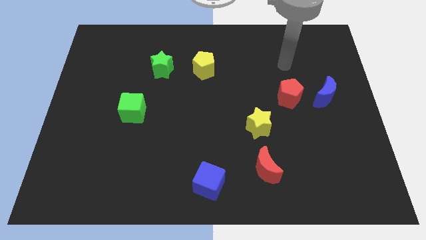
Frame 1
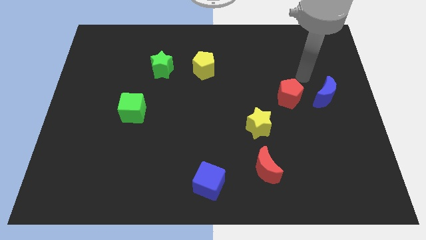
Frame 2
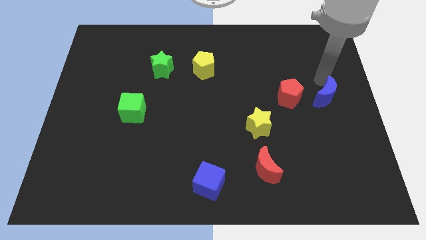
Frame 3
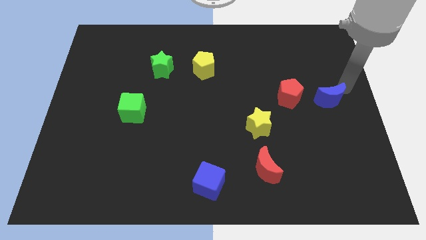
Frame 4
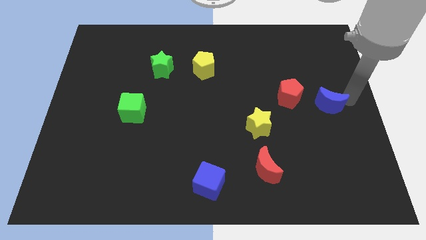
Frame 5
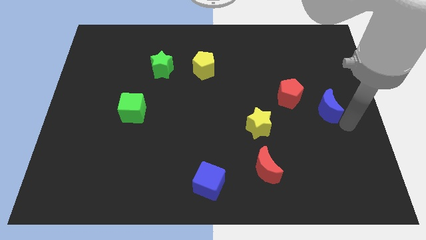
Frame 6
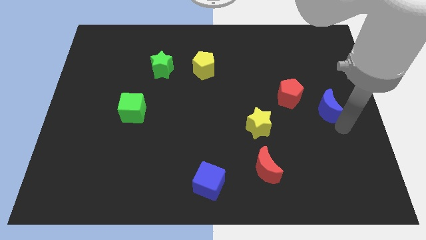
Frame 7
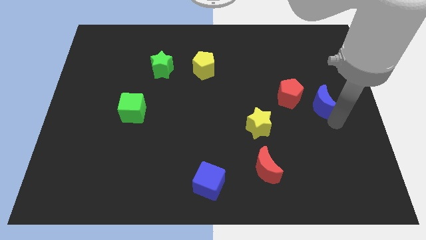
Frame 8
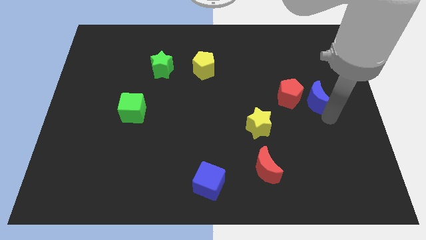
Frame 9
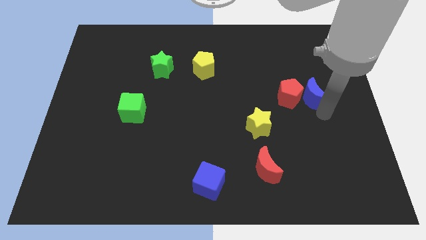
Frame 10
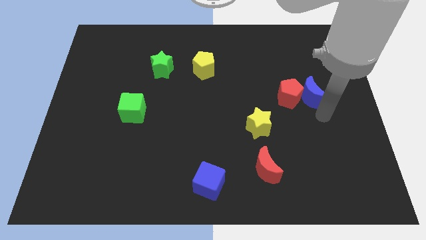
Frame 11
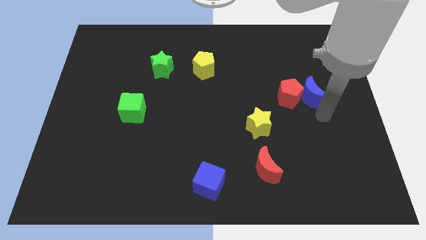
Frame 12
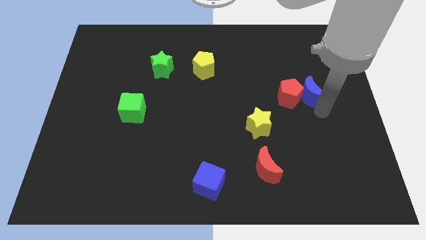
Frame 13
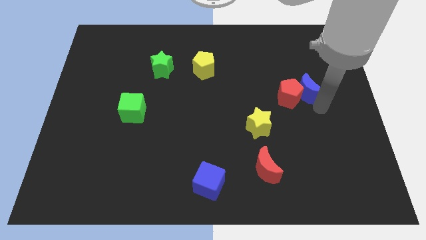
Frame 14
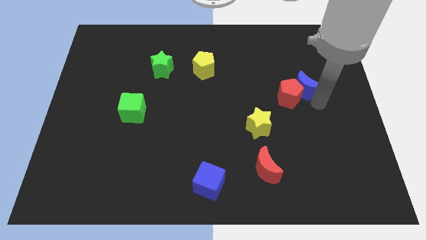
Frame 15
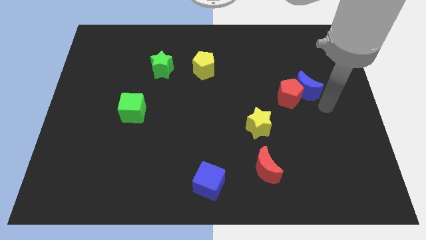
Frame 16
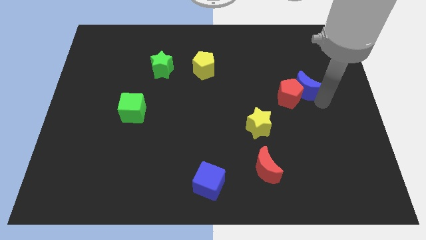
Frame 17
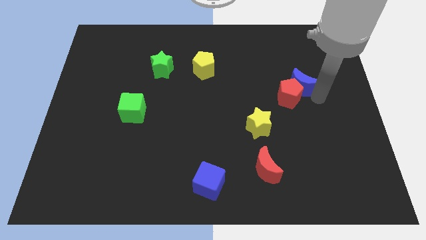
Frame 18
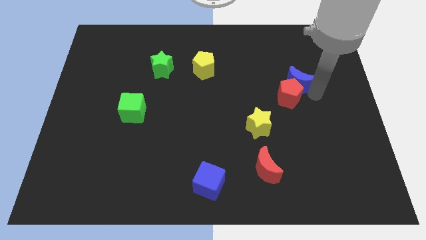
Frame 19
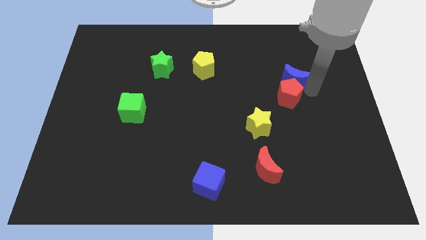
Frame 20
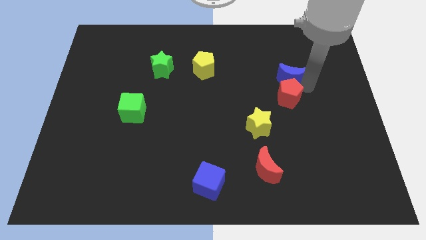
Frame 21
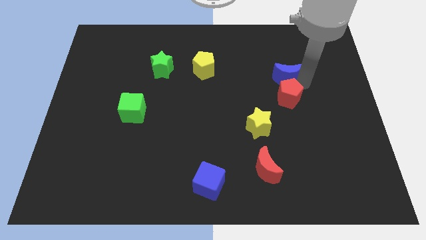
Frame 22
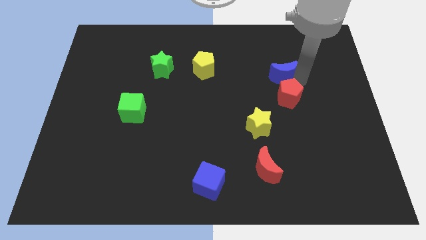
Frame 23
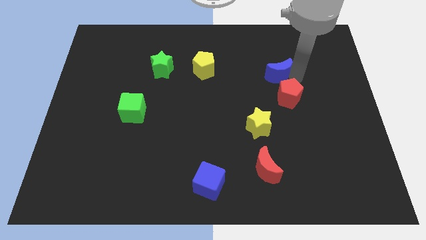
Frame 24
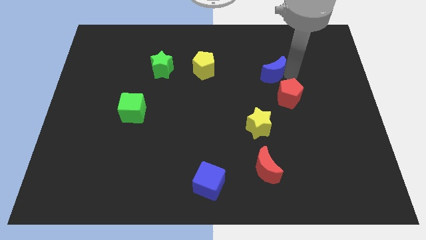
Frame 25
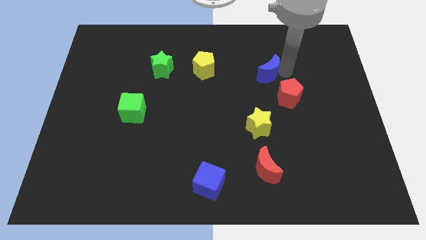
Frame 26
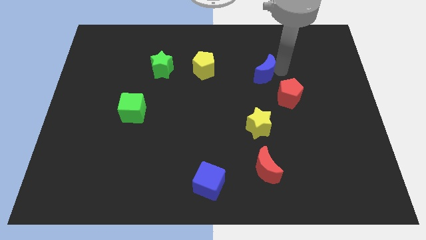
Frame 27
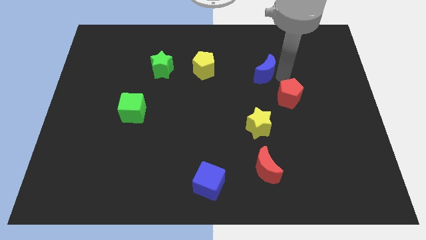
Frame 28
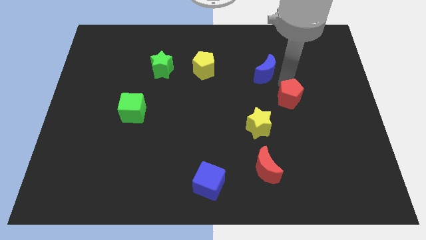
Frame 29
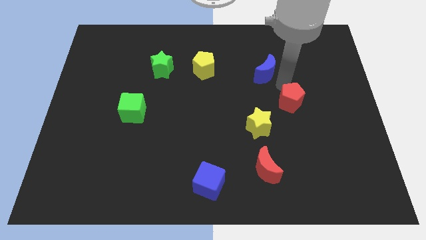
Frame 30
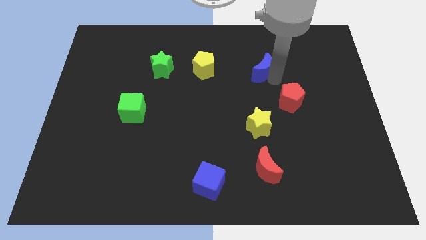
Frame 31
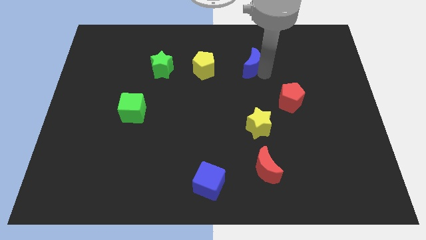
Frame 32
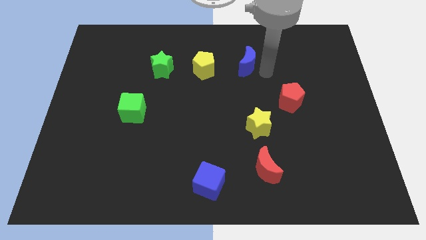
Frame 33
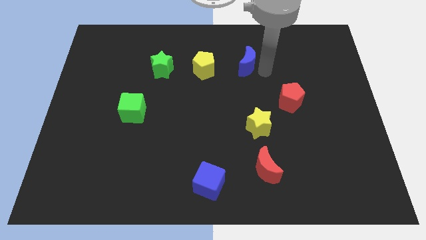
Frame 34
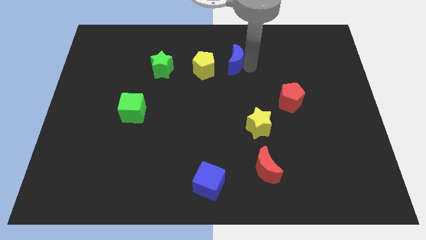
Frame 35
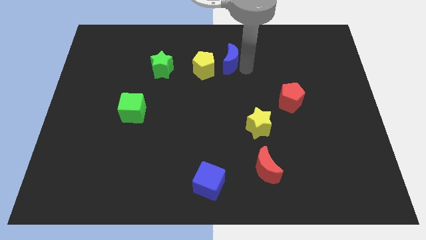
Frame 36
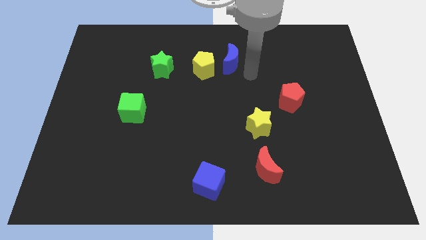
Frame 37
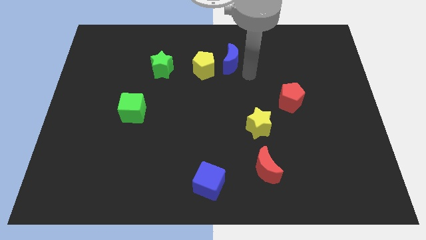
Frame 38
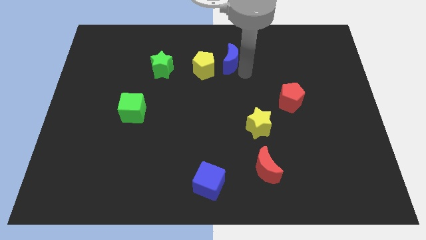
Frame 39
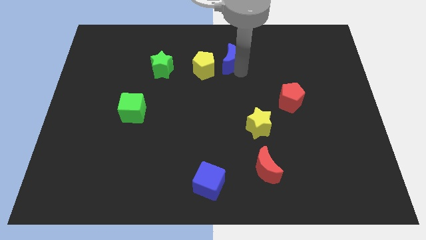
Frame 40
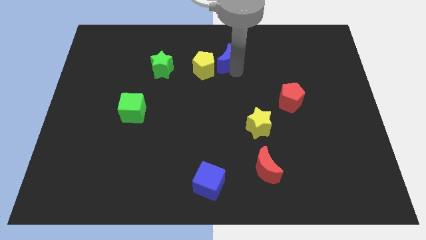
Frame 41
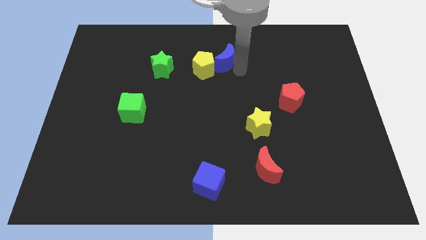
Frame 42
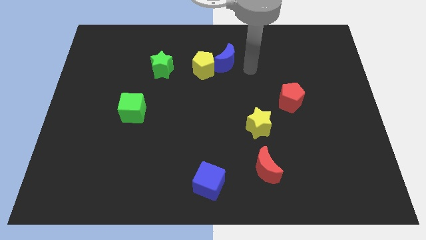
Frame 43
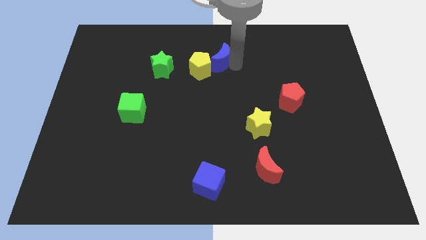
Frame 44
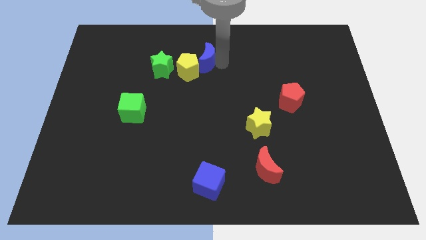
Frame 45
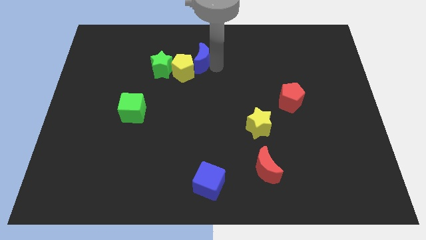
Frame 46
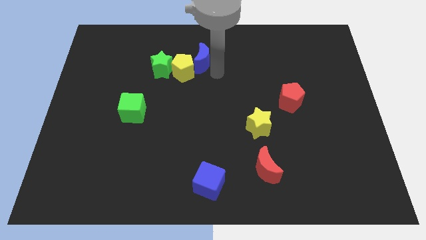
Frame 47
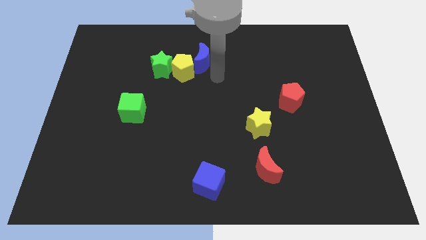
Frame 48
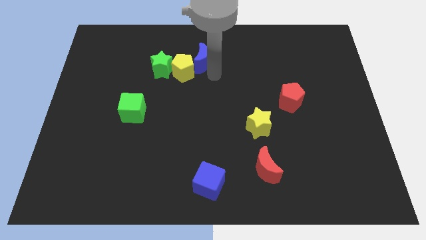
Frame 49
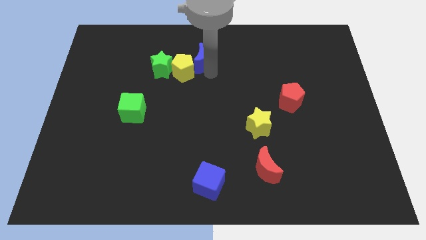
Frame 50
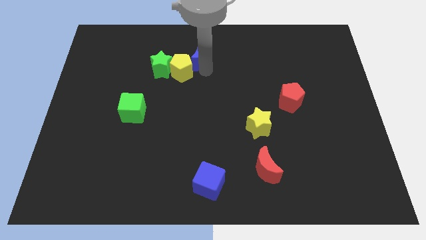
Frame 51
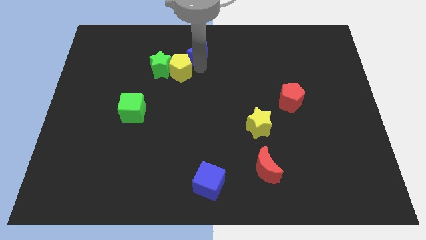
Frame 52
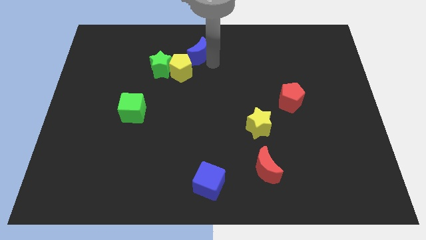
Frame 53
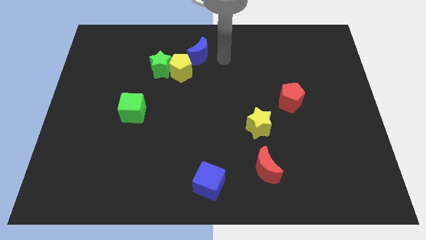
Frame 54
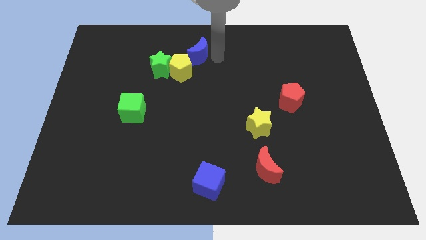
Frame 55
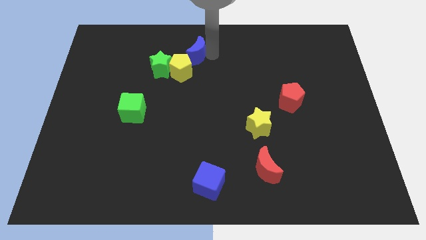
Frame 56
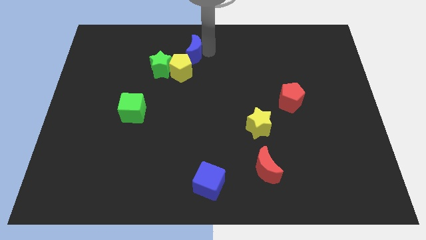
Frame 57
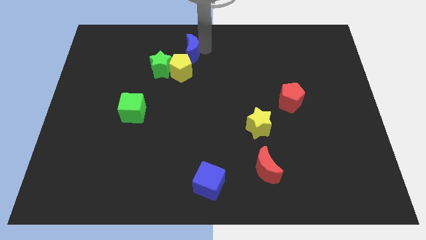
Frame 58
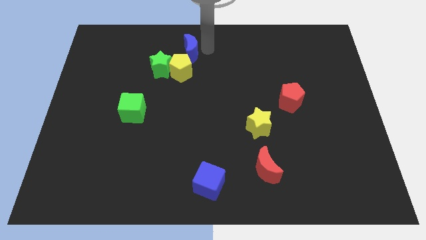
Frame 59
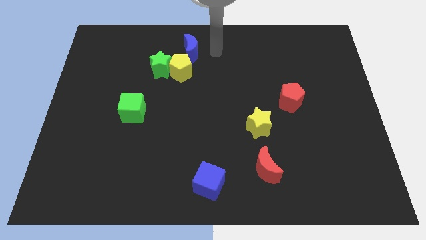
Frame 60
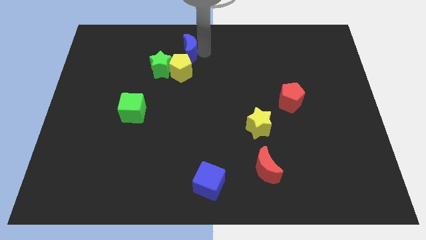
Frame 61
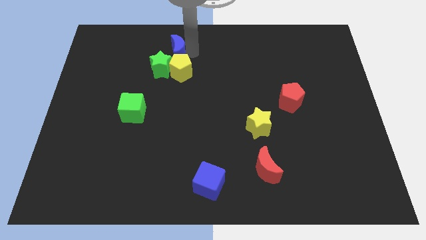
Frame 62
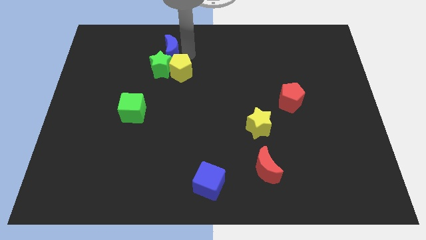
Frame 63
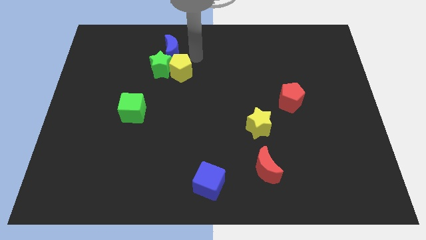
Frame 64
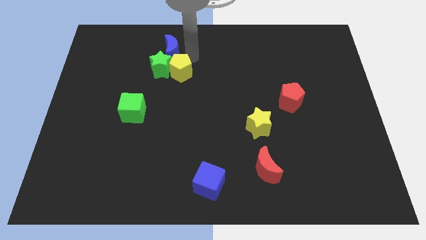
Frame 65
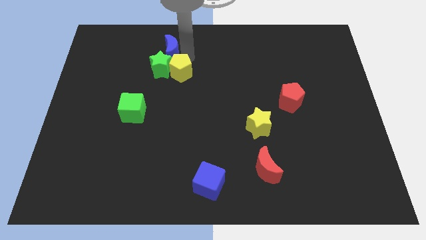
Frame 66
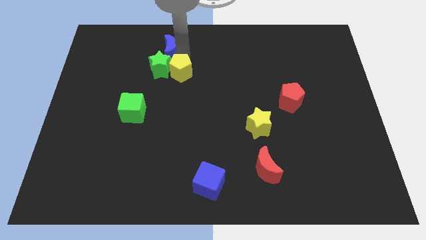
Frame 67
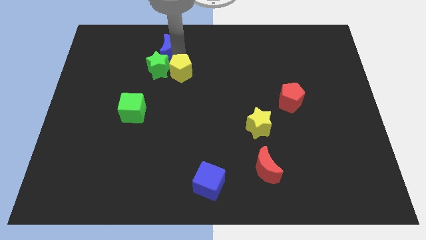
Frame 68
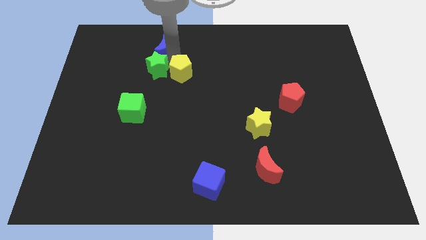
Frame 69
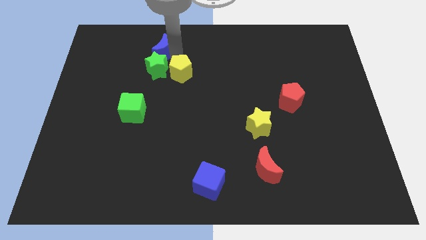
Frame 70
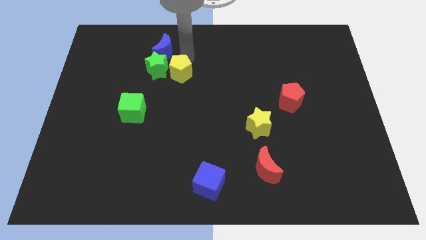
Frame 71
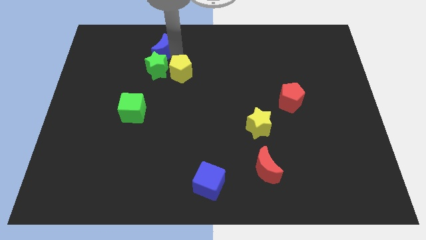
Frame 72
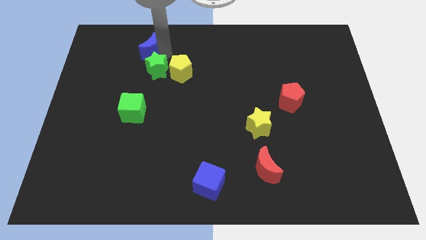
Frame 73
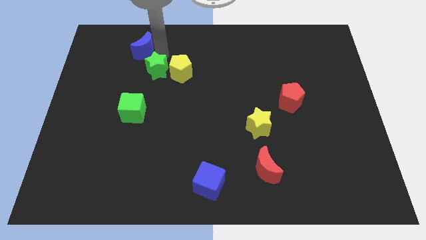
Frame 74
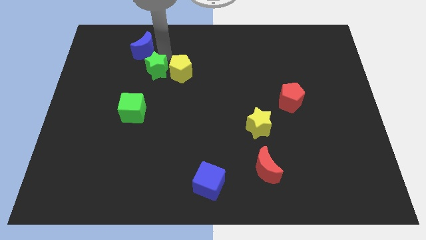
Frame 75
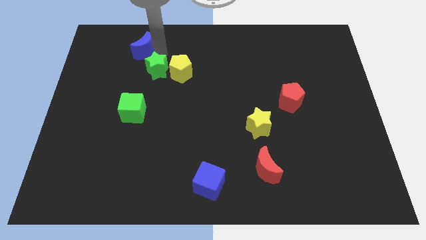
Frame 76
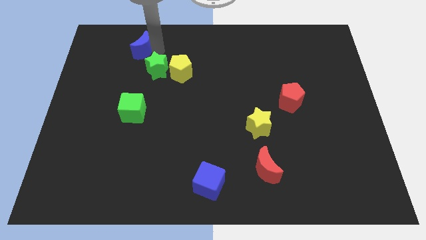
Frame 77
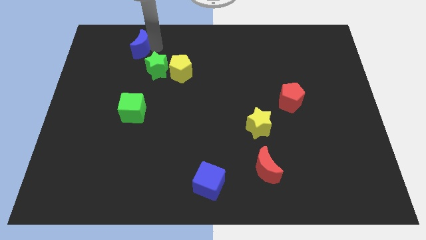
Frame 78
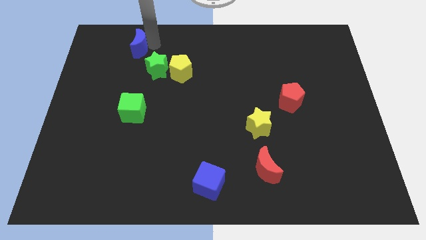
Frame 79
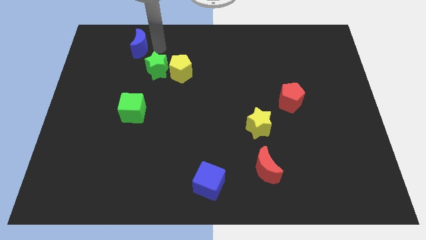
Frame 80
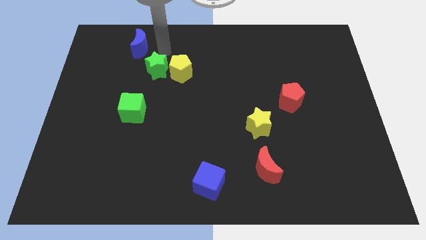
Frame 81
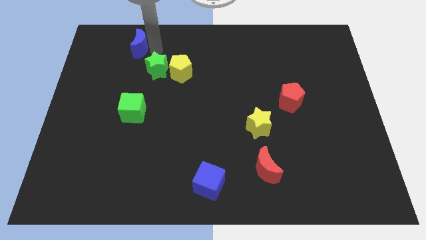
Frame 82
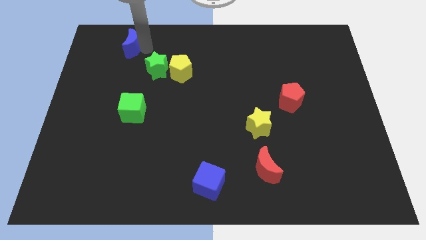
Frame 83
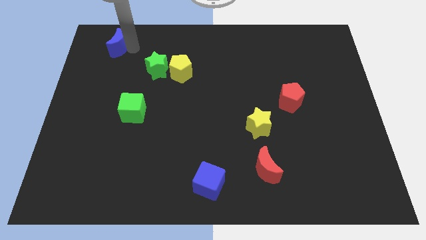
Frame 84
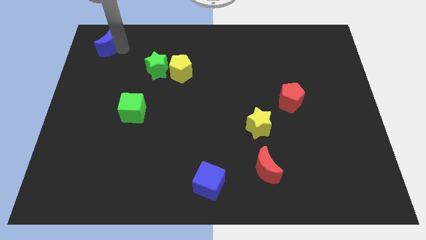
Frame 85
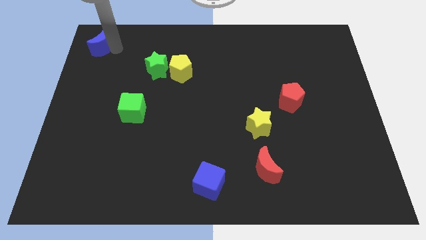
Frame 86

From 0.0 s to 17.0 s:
push the blue moon to the top left corner
